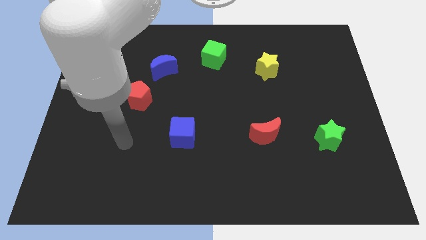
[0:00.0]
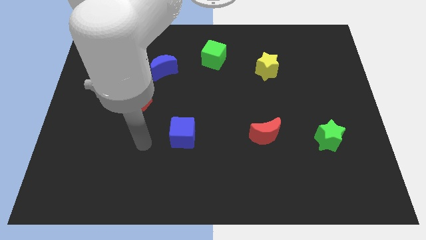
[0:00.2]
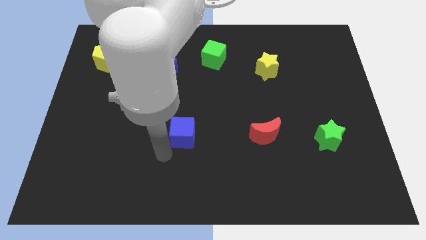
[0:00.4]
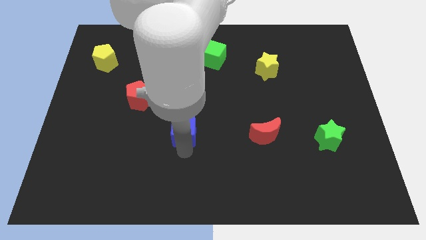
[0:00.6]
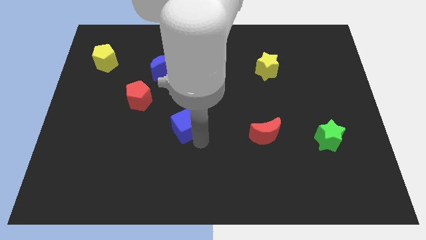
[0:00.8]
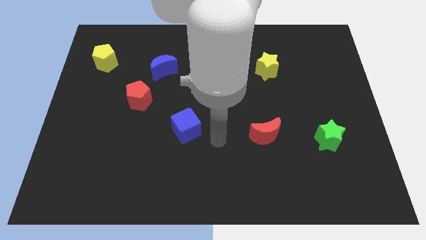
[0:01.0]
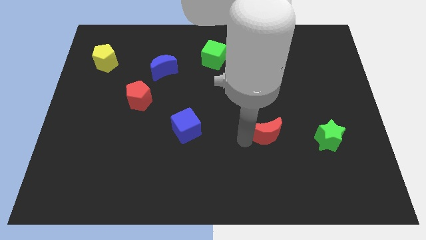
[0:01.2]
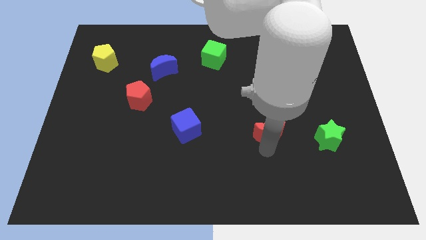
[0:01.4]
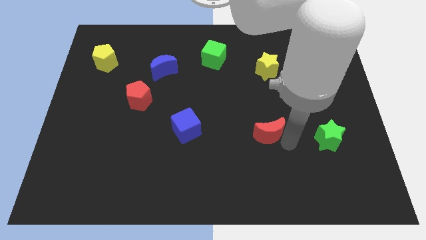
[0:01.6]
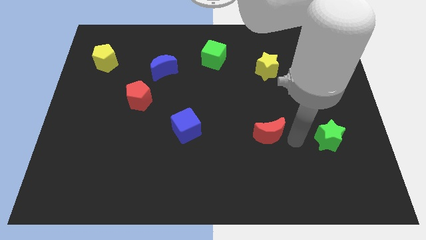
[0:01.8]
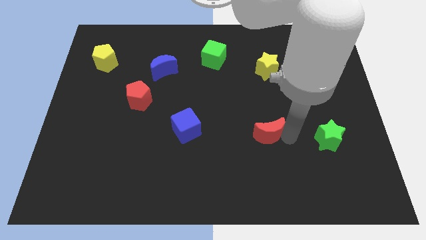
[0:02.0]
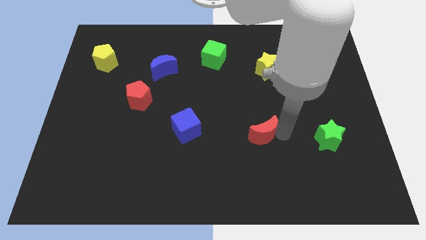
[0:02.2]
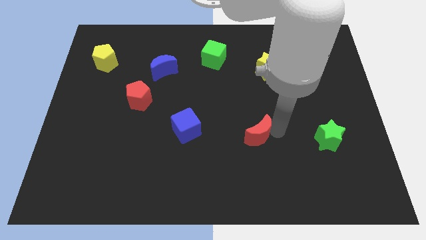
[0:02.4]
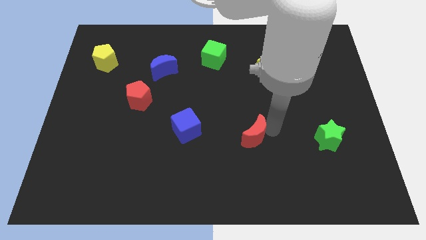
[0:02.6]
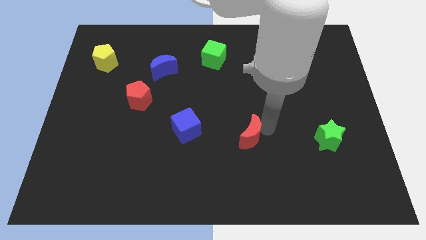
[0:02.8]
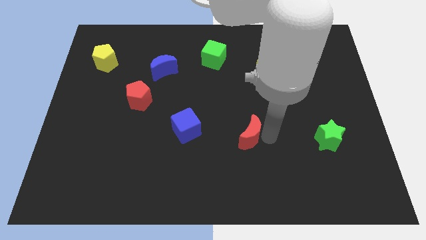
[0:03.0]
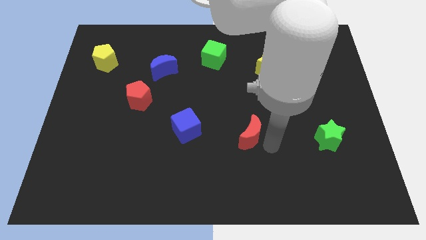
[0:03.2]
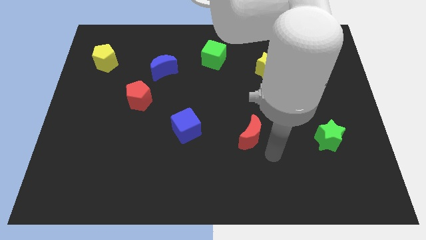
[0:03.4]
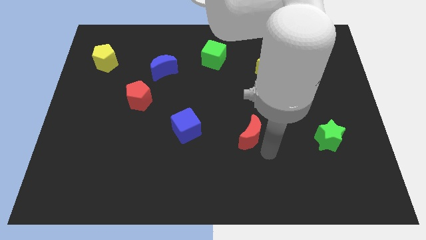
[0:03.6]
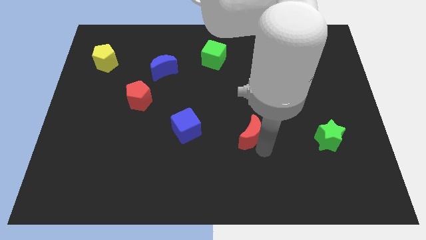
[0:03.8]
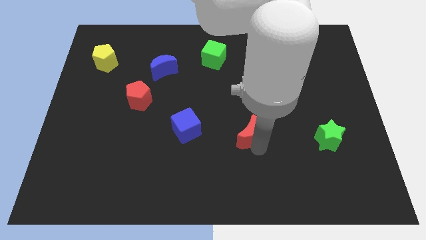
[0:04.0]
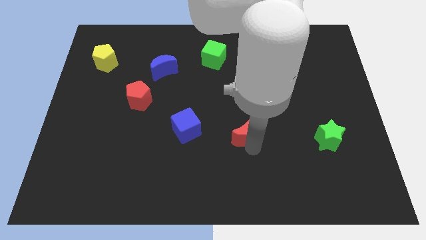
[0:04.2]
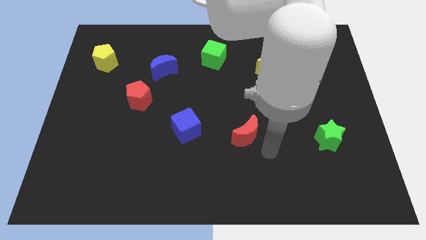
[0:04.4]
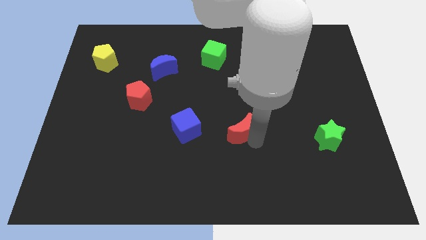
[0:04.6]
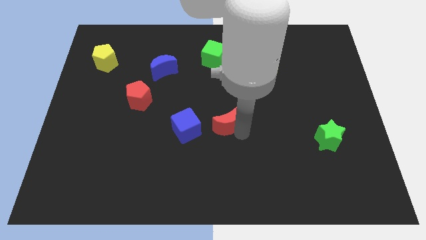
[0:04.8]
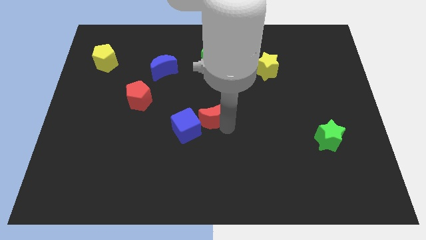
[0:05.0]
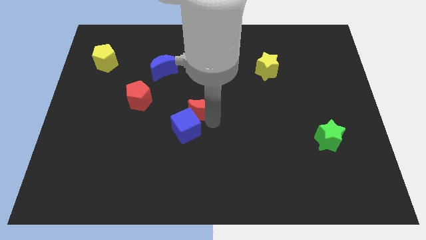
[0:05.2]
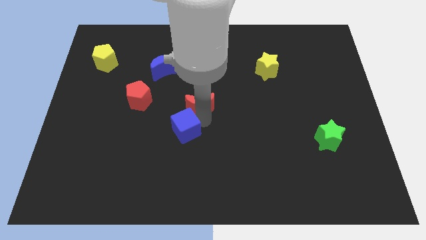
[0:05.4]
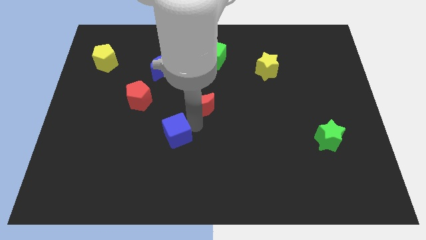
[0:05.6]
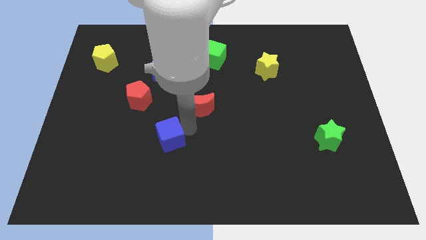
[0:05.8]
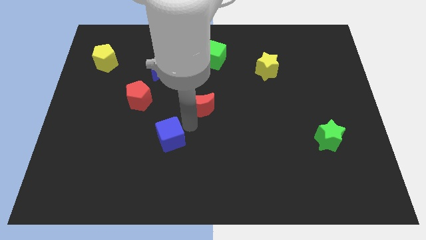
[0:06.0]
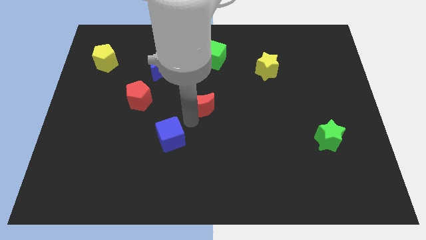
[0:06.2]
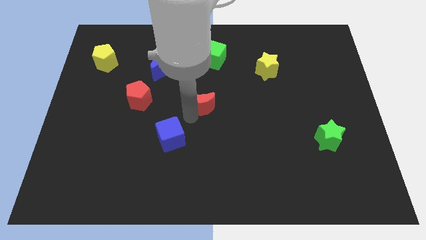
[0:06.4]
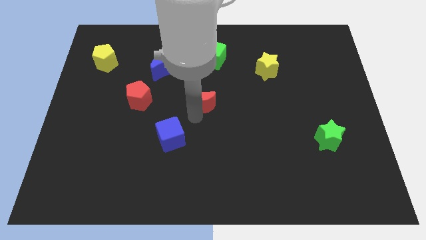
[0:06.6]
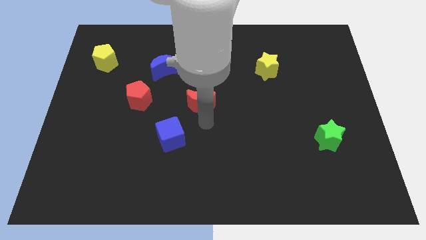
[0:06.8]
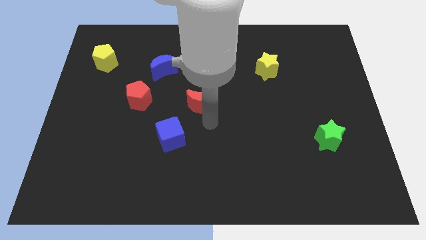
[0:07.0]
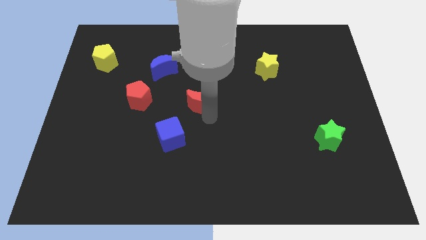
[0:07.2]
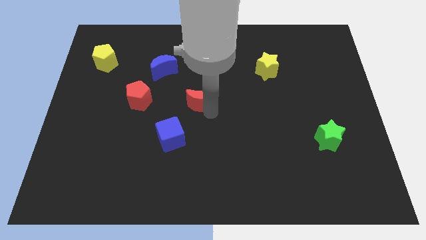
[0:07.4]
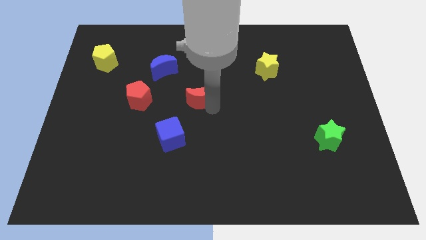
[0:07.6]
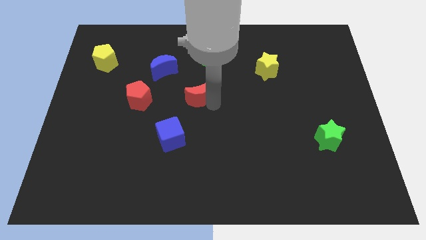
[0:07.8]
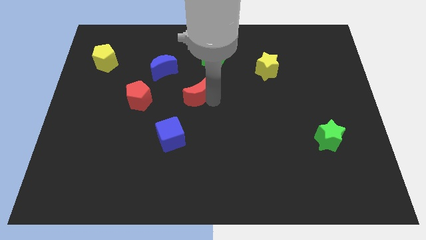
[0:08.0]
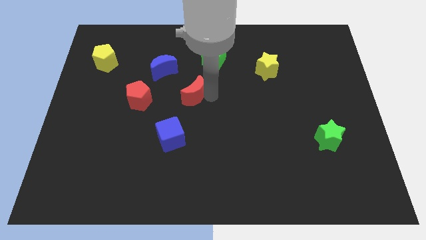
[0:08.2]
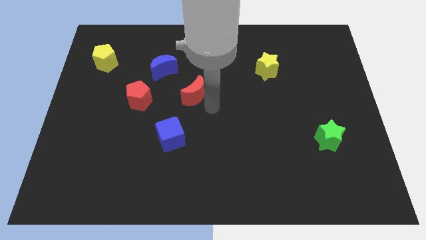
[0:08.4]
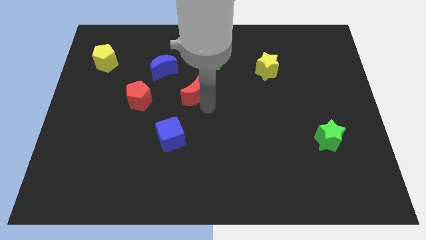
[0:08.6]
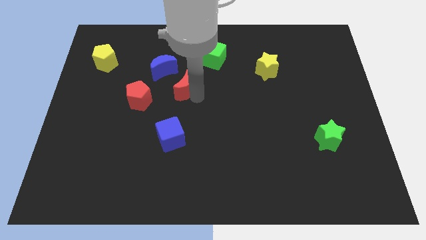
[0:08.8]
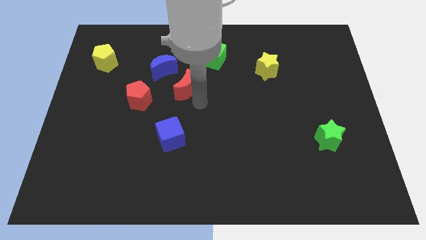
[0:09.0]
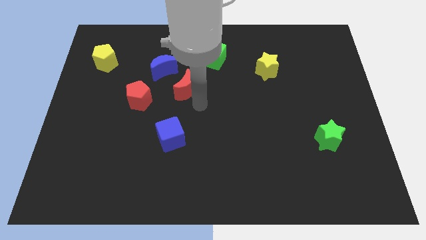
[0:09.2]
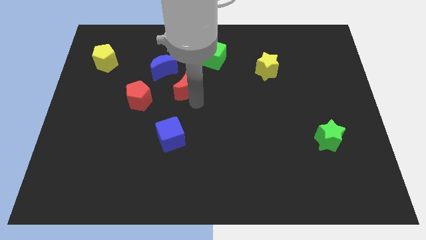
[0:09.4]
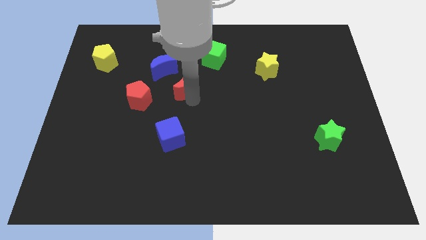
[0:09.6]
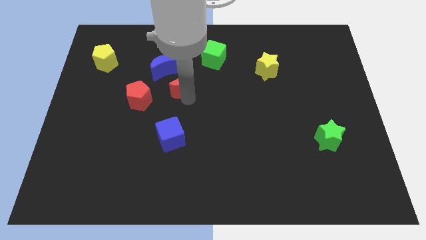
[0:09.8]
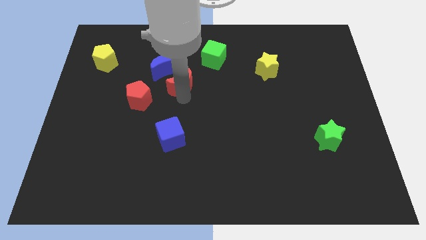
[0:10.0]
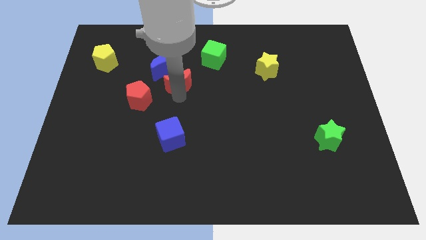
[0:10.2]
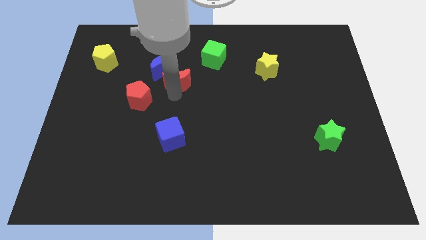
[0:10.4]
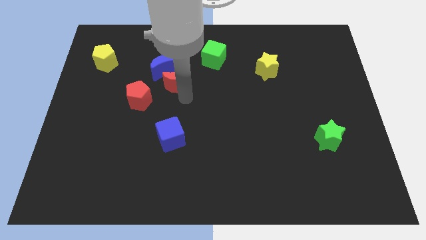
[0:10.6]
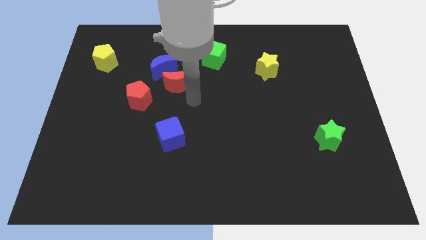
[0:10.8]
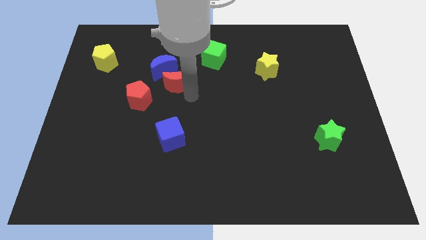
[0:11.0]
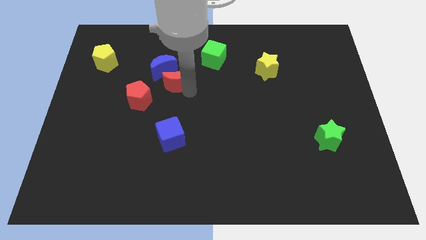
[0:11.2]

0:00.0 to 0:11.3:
push the red moon to the blue moon

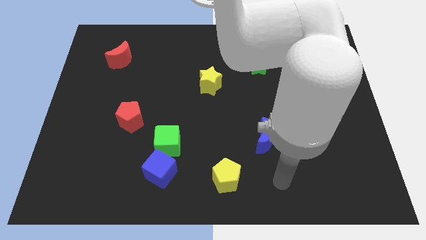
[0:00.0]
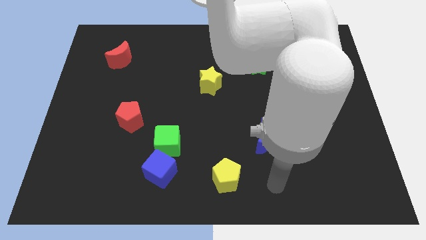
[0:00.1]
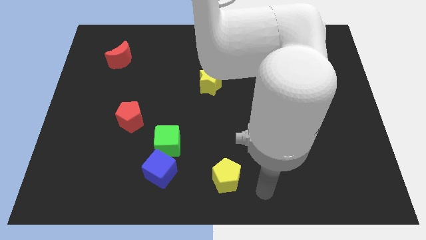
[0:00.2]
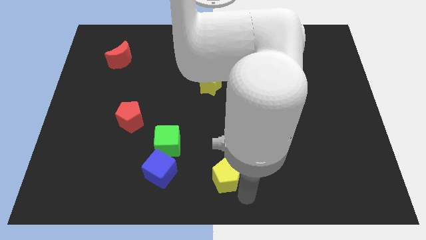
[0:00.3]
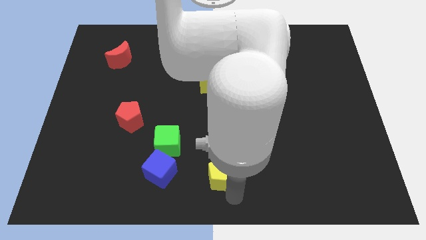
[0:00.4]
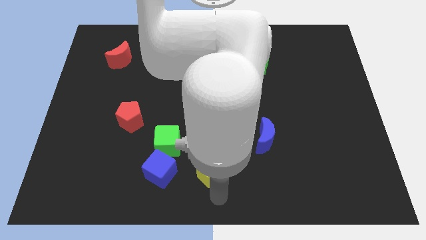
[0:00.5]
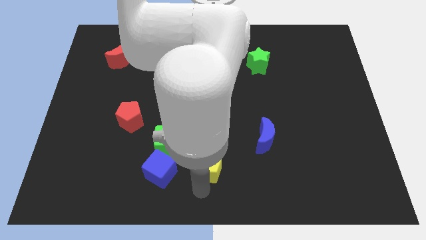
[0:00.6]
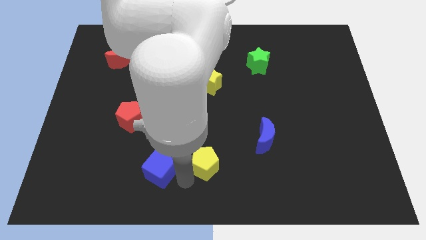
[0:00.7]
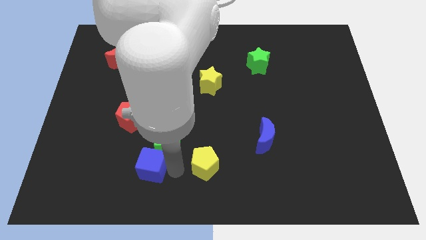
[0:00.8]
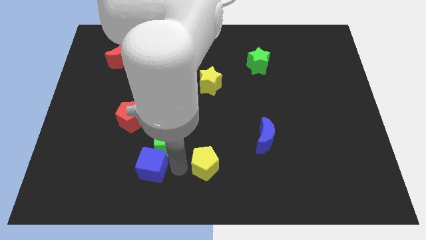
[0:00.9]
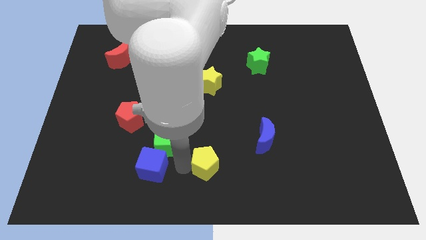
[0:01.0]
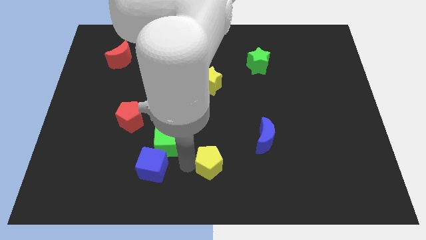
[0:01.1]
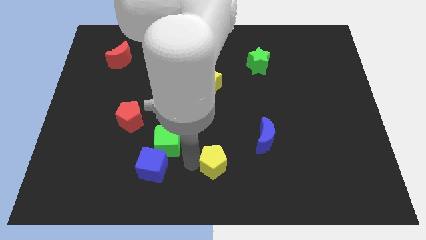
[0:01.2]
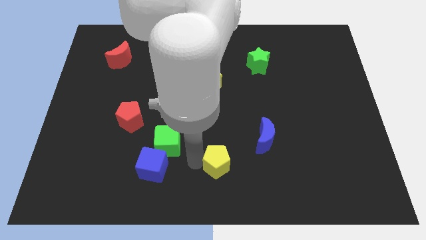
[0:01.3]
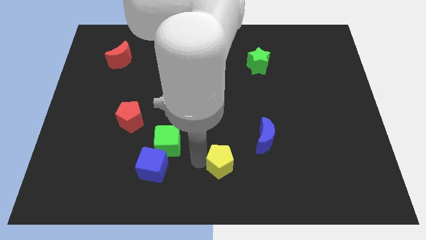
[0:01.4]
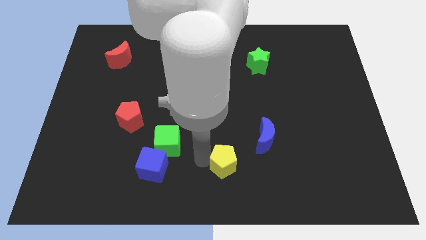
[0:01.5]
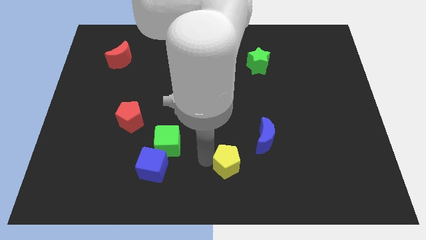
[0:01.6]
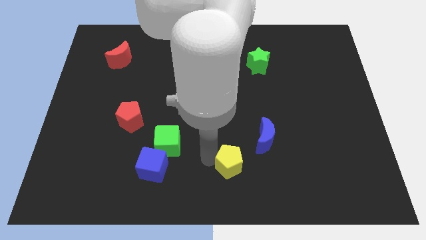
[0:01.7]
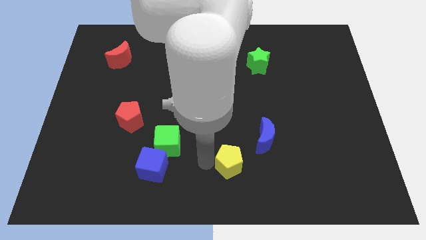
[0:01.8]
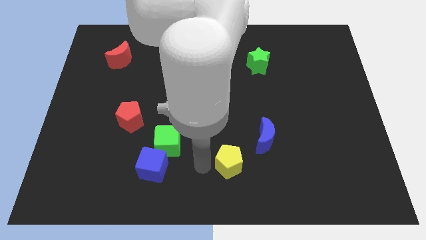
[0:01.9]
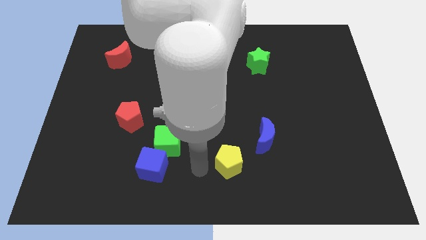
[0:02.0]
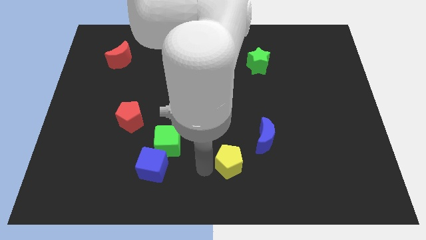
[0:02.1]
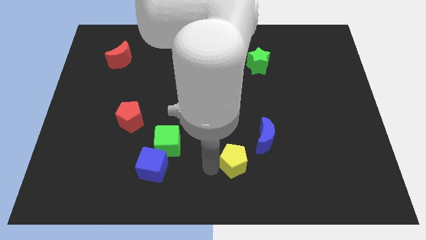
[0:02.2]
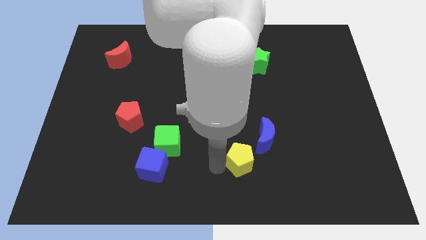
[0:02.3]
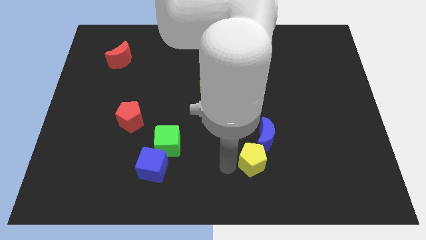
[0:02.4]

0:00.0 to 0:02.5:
push the yellow pentagon close to the blue moon

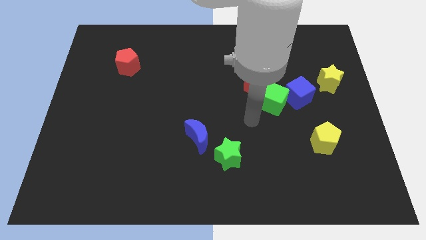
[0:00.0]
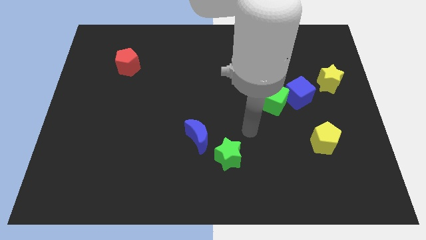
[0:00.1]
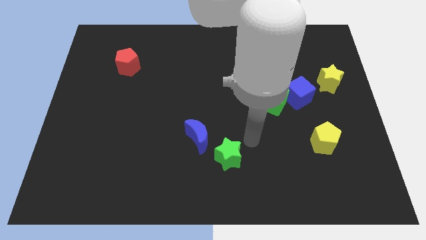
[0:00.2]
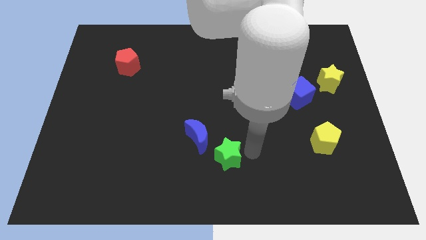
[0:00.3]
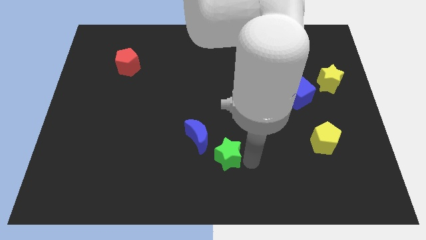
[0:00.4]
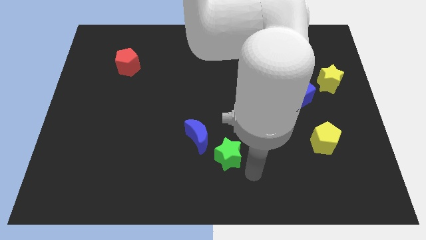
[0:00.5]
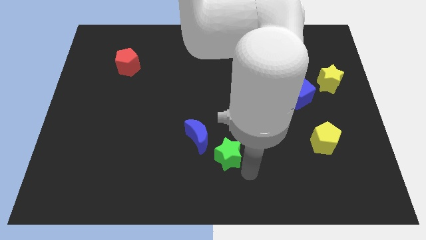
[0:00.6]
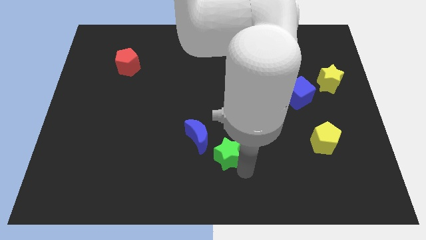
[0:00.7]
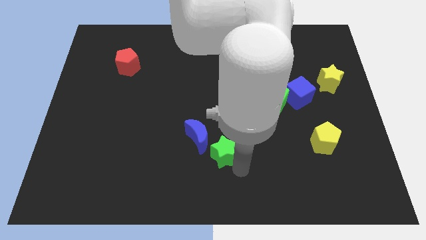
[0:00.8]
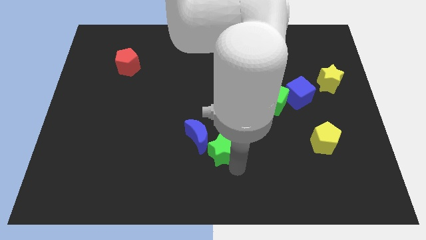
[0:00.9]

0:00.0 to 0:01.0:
slide the green star towards the blue moon
